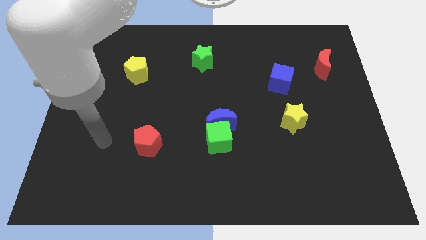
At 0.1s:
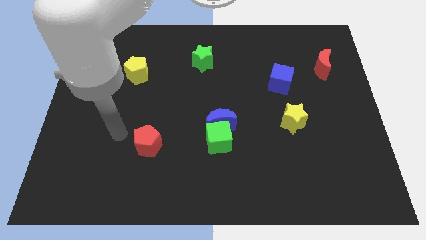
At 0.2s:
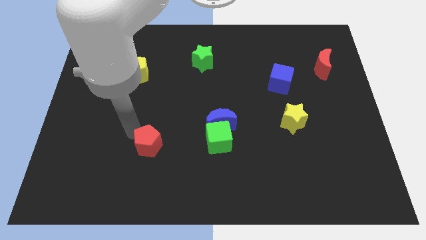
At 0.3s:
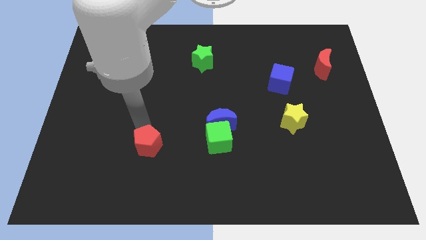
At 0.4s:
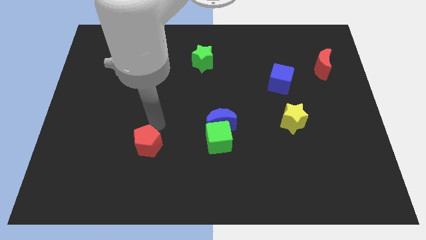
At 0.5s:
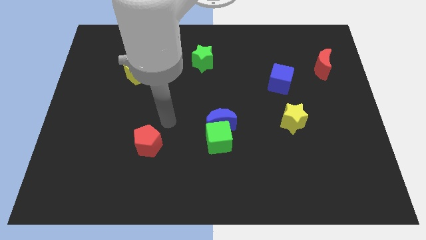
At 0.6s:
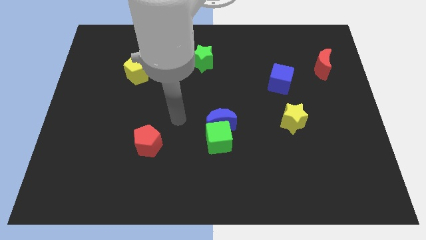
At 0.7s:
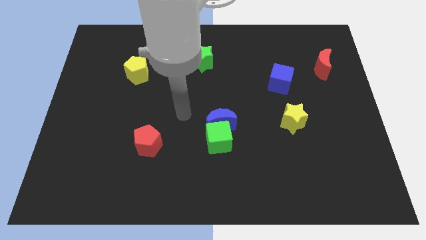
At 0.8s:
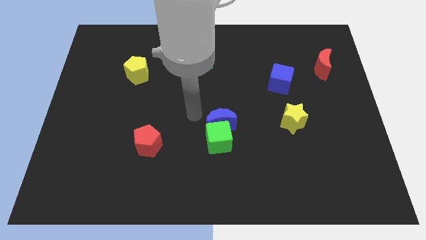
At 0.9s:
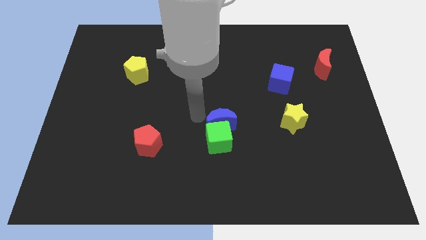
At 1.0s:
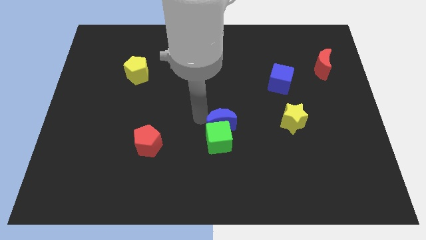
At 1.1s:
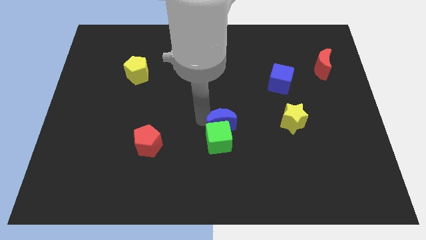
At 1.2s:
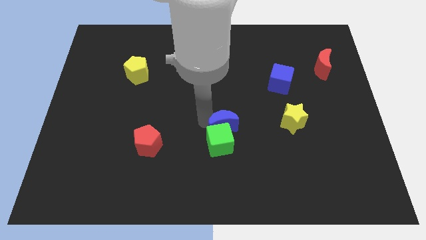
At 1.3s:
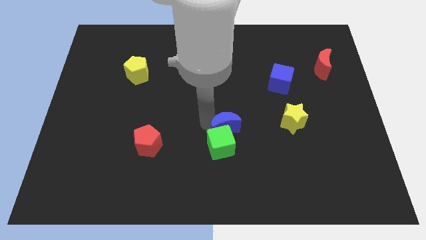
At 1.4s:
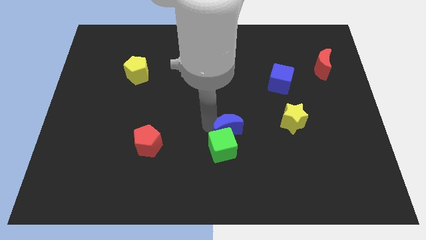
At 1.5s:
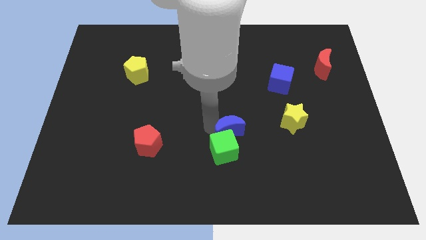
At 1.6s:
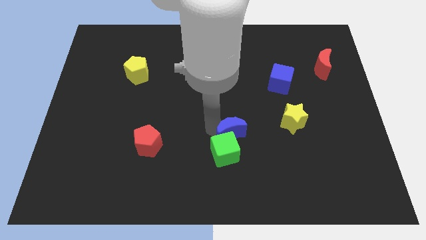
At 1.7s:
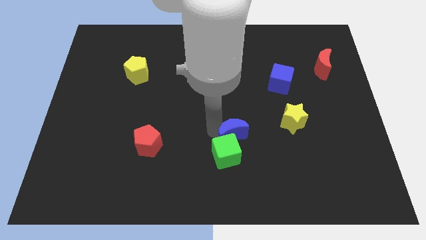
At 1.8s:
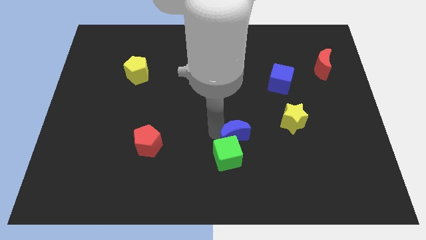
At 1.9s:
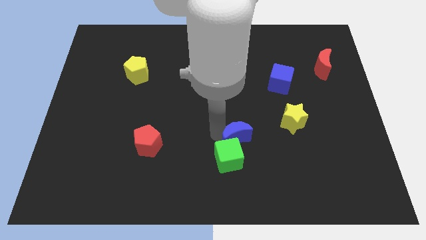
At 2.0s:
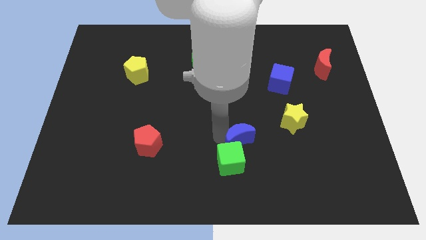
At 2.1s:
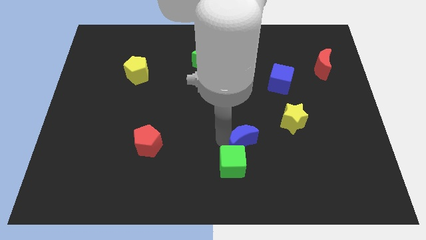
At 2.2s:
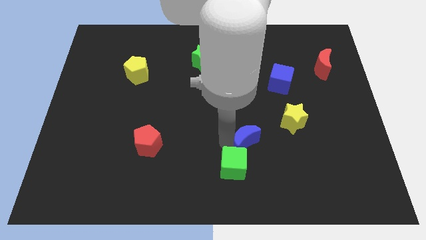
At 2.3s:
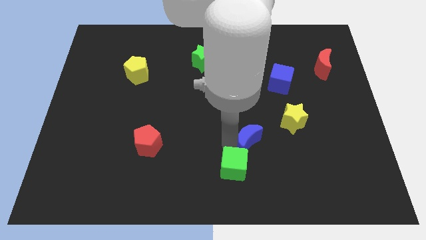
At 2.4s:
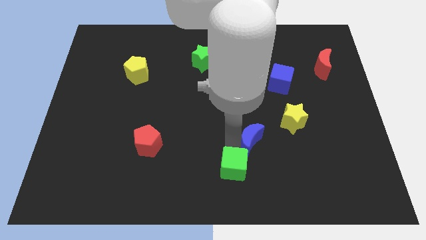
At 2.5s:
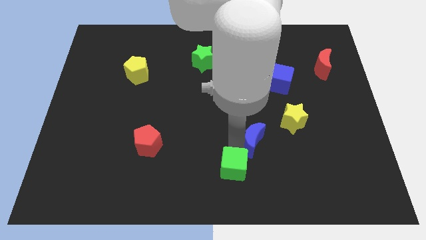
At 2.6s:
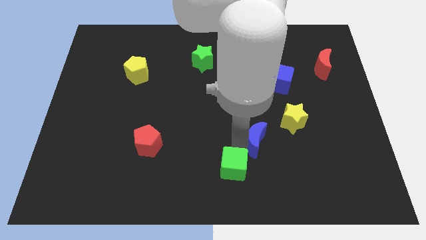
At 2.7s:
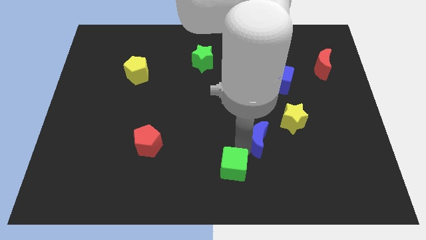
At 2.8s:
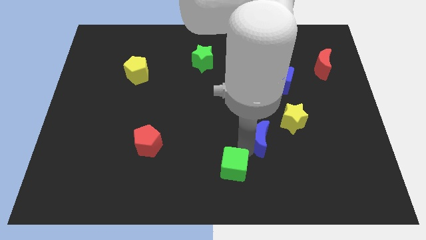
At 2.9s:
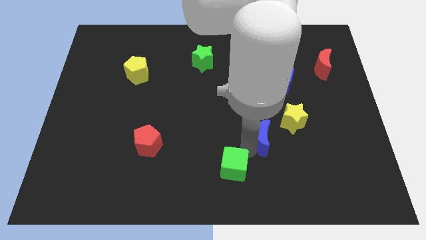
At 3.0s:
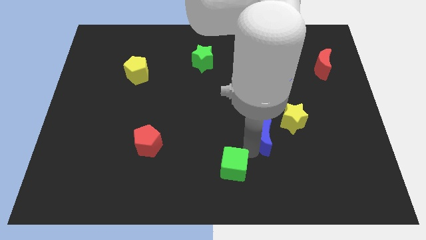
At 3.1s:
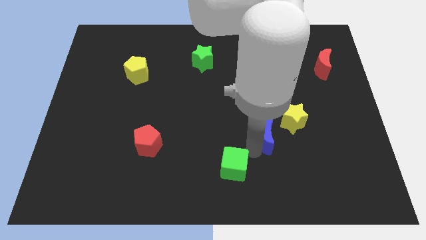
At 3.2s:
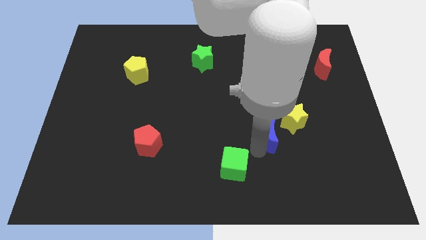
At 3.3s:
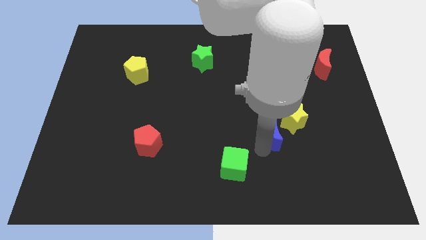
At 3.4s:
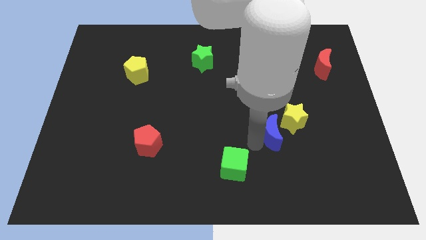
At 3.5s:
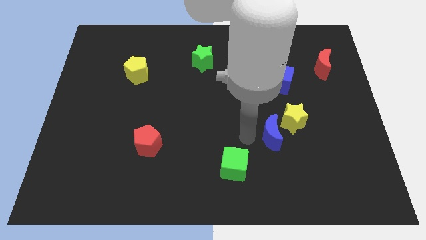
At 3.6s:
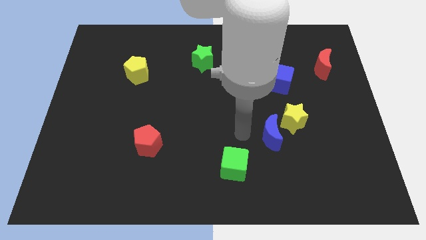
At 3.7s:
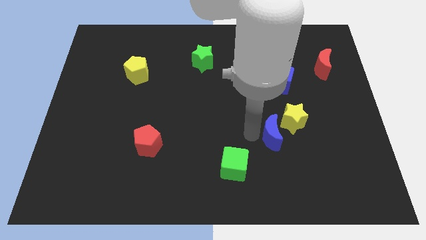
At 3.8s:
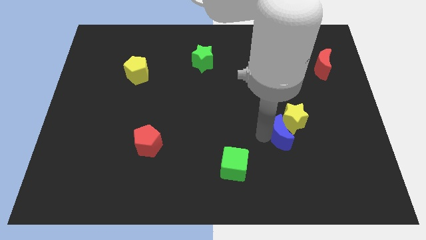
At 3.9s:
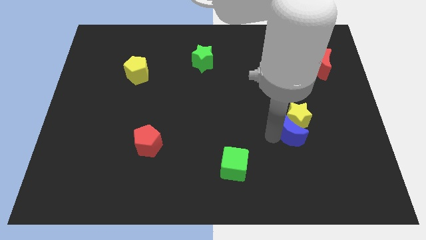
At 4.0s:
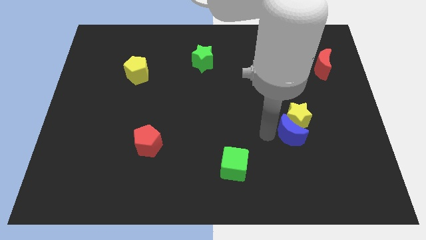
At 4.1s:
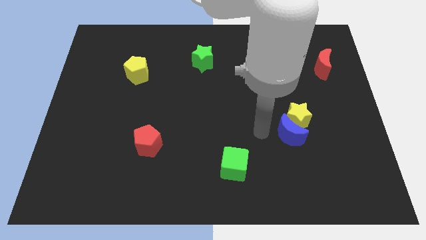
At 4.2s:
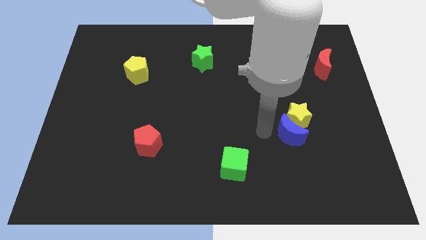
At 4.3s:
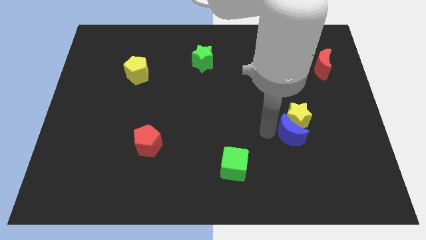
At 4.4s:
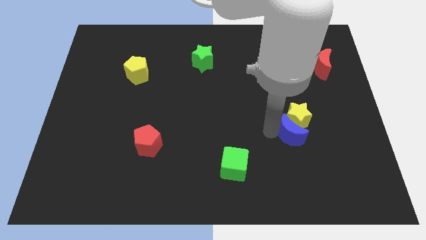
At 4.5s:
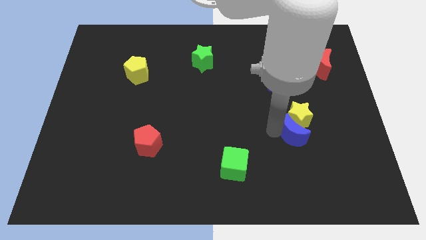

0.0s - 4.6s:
push the blue moon to the bottom right side of the yellow star

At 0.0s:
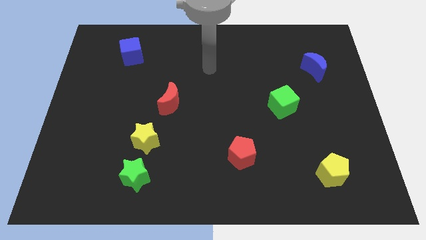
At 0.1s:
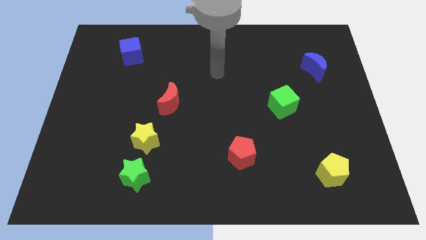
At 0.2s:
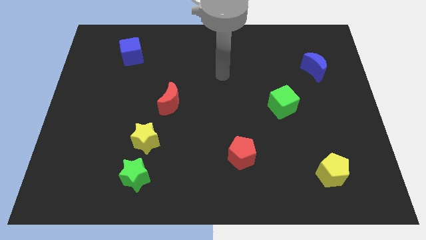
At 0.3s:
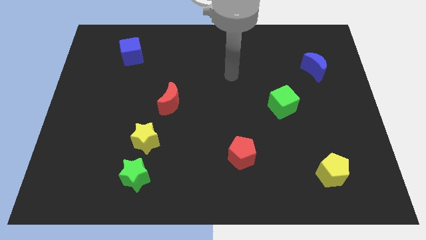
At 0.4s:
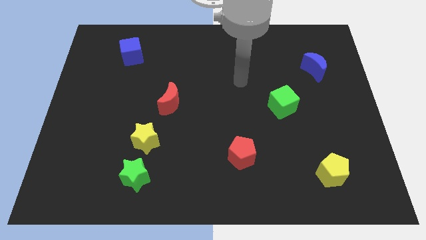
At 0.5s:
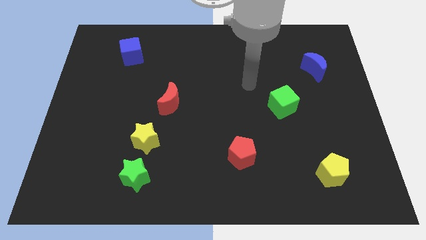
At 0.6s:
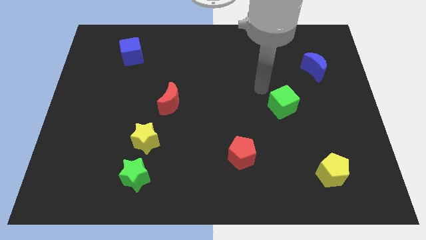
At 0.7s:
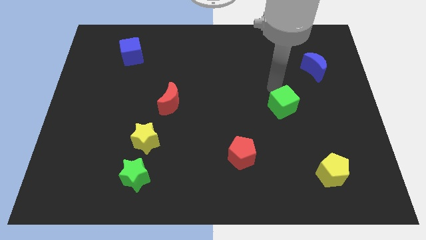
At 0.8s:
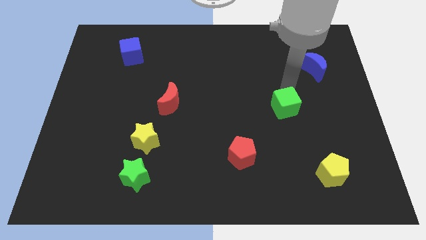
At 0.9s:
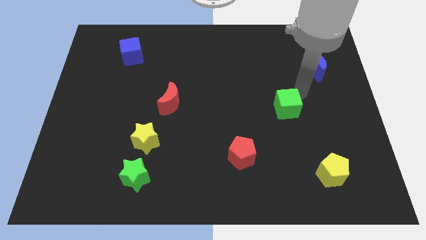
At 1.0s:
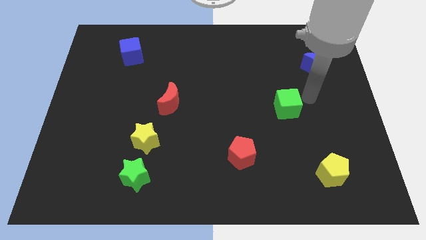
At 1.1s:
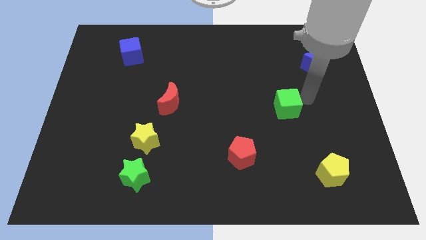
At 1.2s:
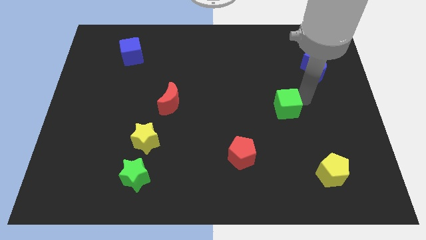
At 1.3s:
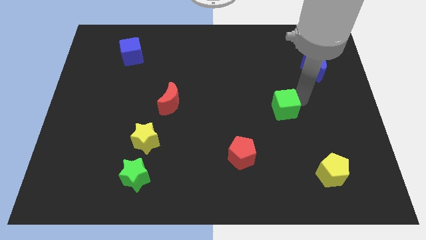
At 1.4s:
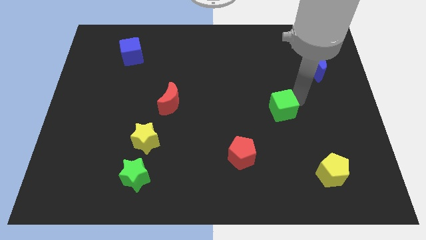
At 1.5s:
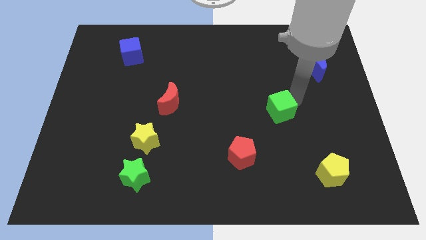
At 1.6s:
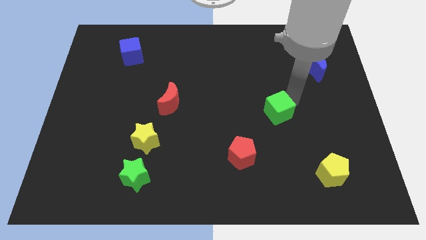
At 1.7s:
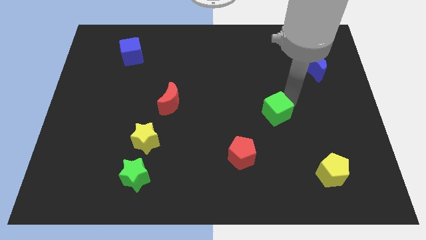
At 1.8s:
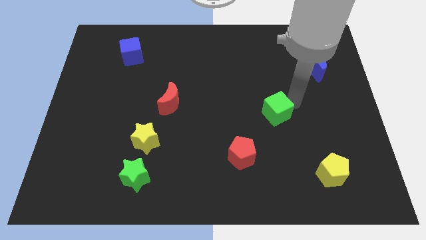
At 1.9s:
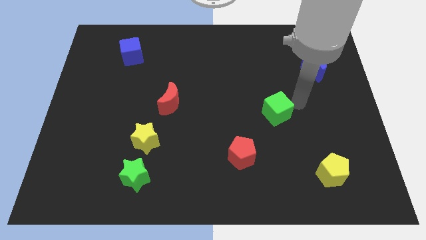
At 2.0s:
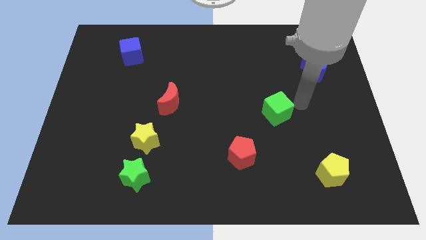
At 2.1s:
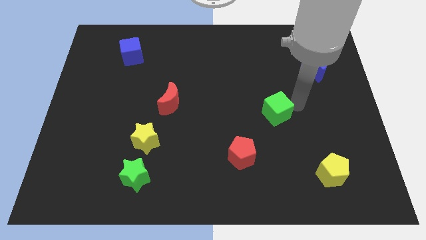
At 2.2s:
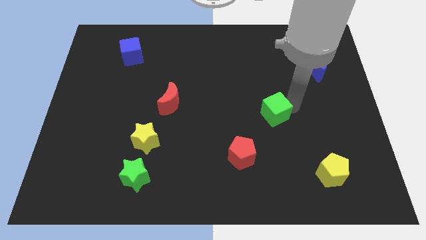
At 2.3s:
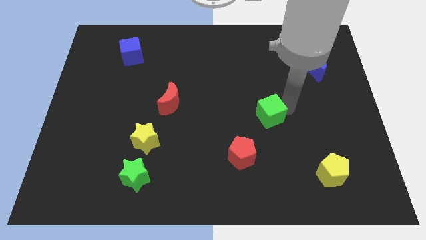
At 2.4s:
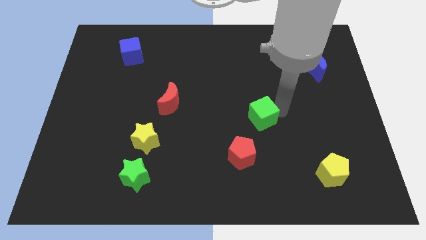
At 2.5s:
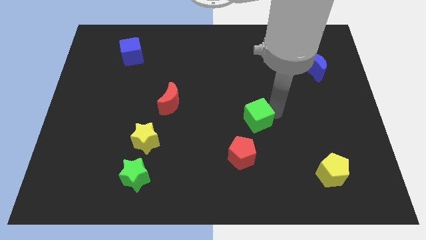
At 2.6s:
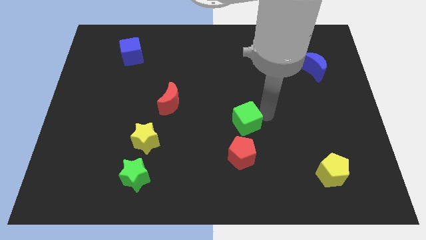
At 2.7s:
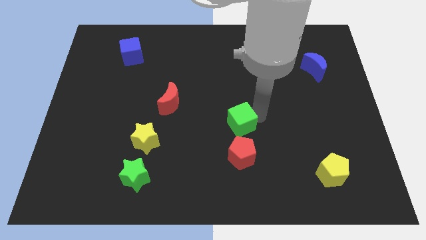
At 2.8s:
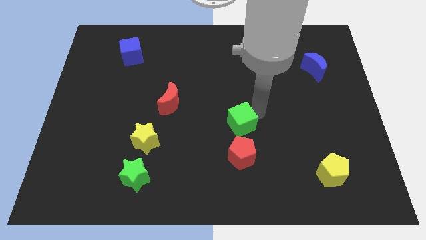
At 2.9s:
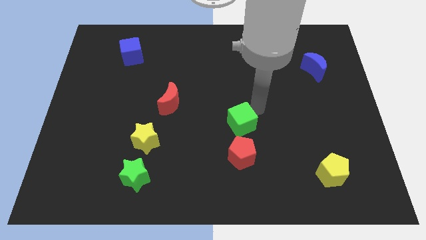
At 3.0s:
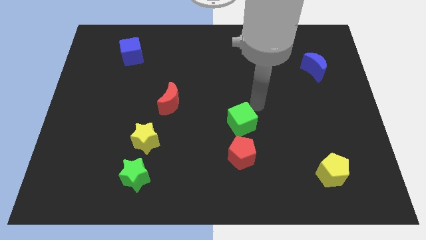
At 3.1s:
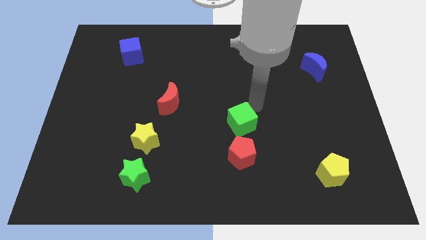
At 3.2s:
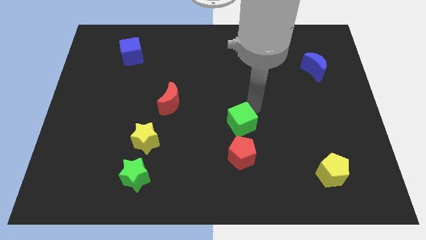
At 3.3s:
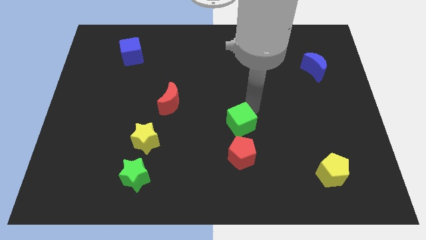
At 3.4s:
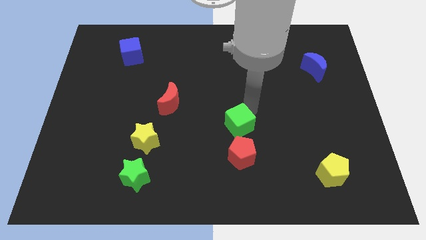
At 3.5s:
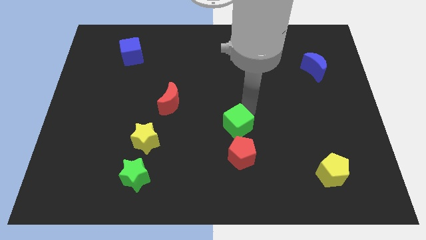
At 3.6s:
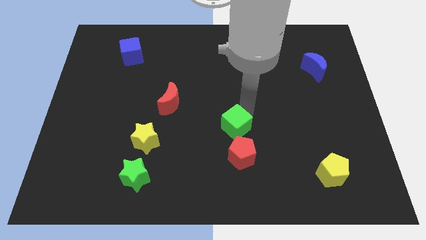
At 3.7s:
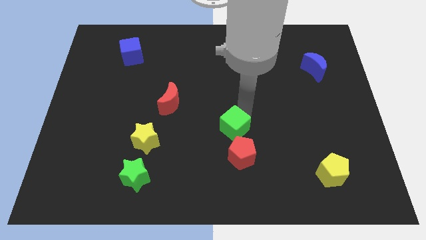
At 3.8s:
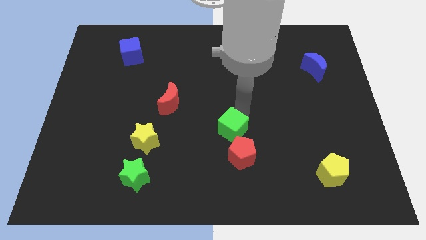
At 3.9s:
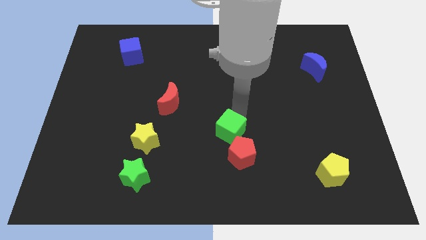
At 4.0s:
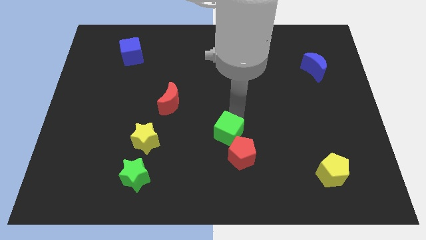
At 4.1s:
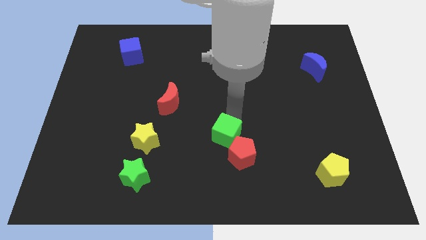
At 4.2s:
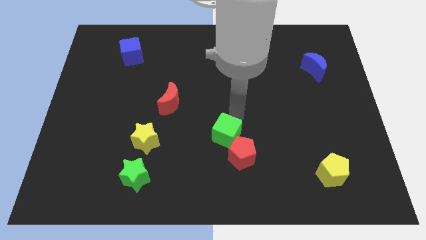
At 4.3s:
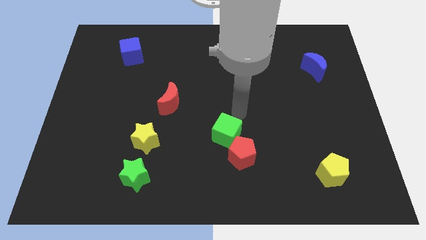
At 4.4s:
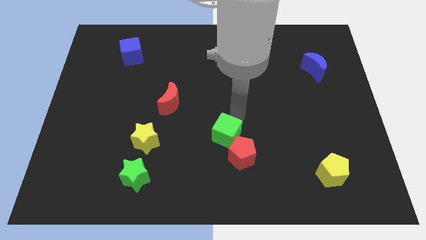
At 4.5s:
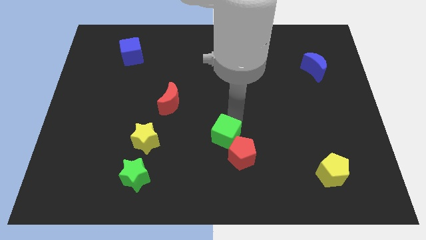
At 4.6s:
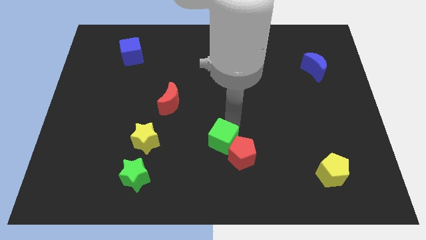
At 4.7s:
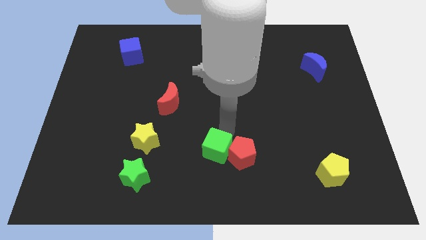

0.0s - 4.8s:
slide the green cube diagonally down and to the left of the red pentagon
